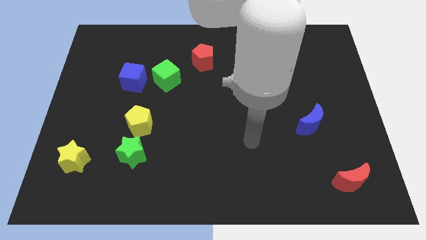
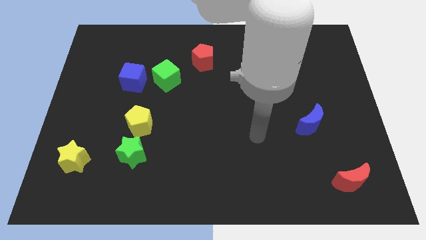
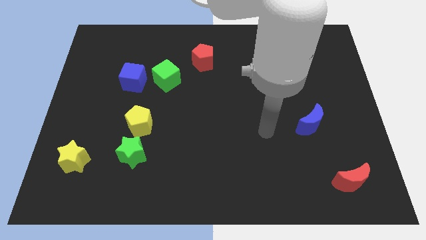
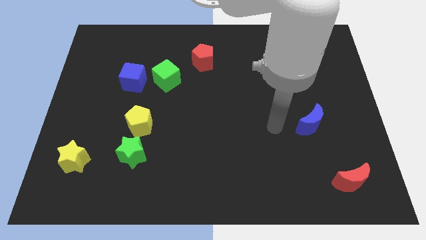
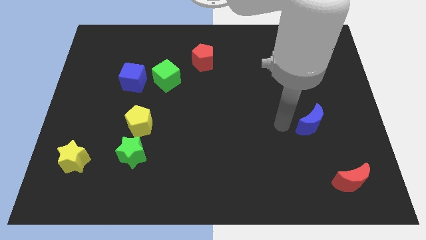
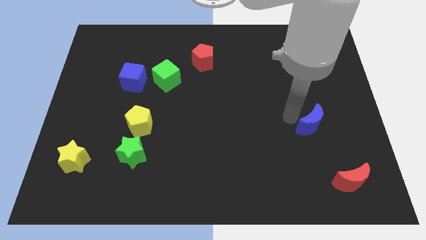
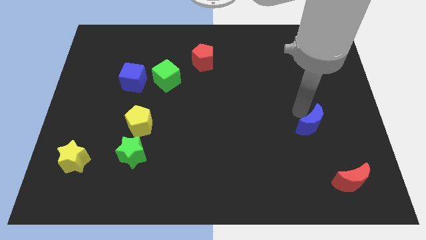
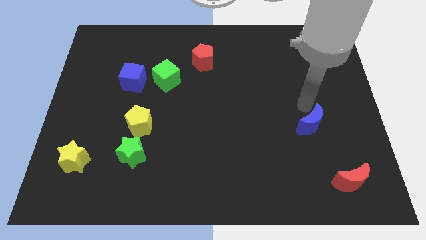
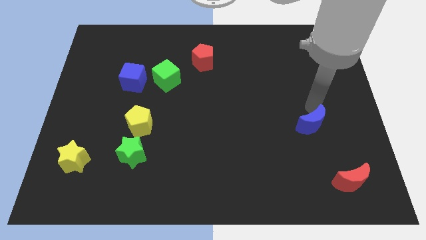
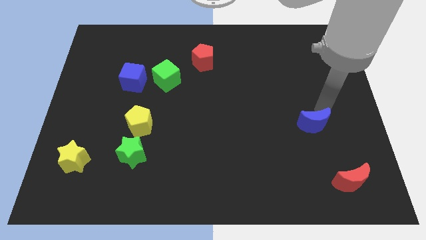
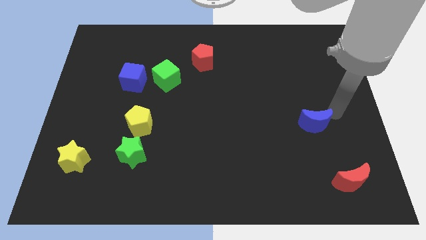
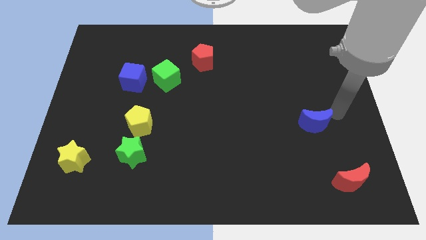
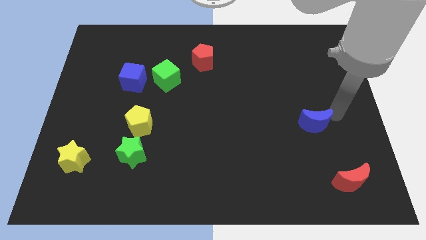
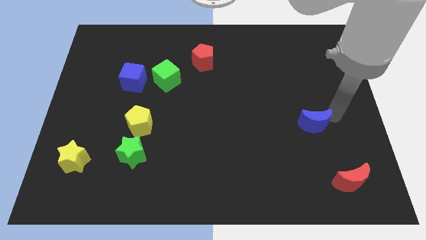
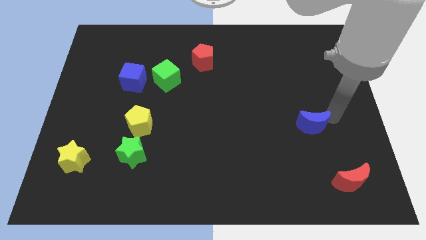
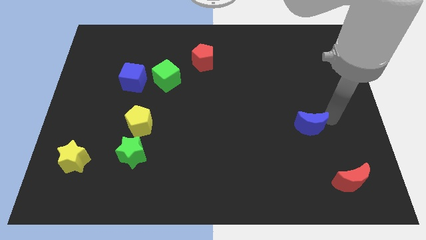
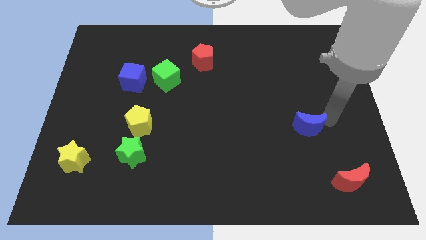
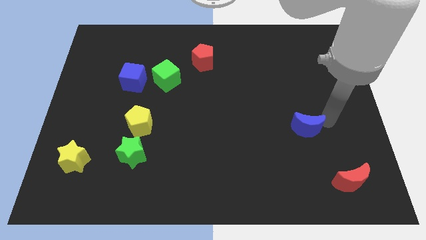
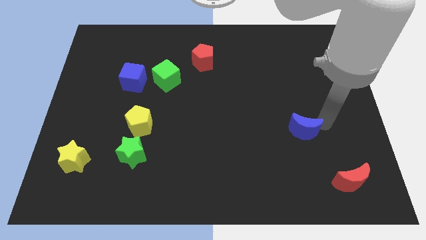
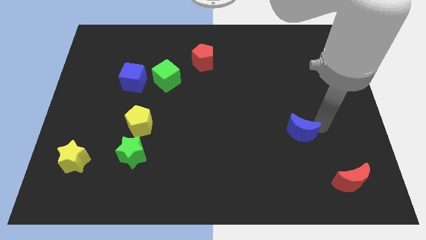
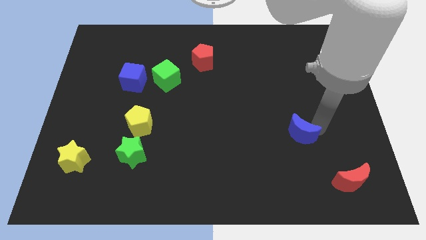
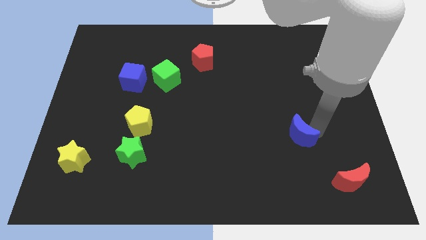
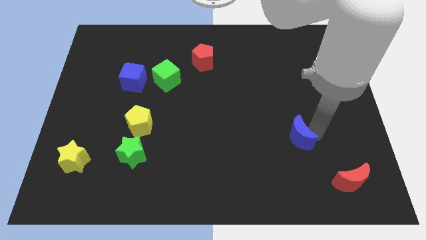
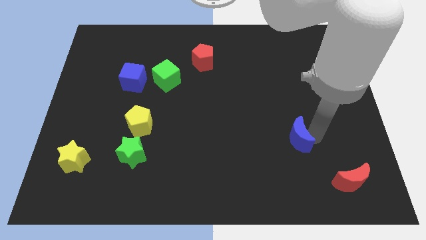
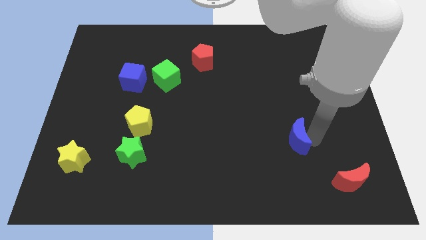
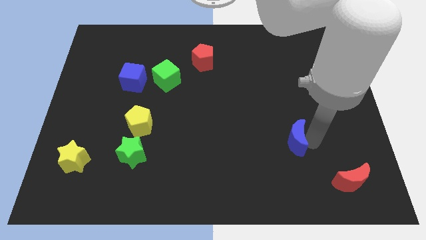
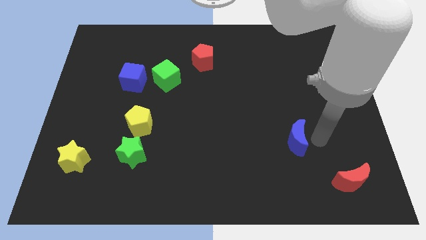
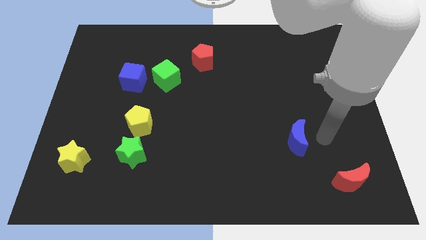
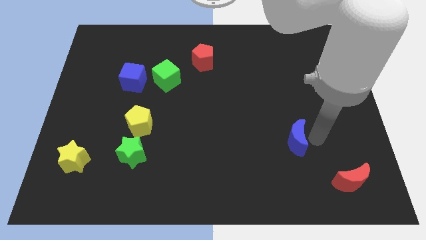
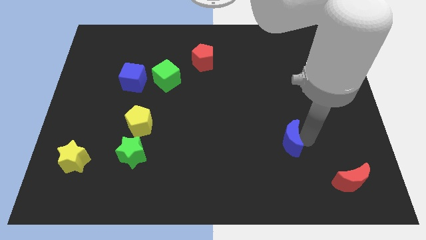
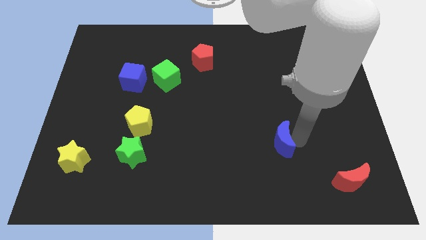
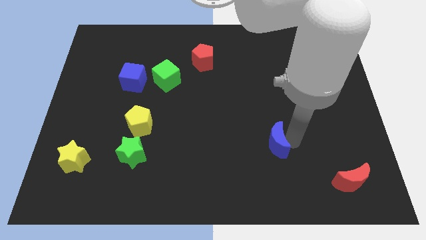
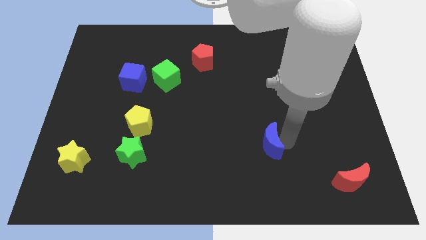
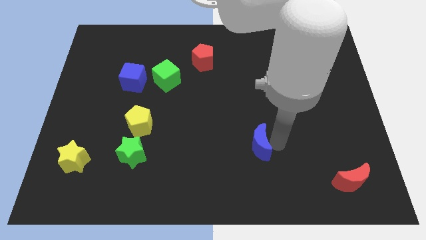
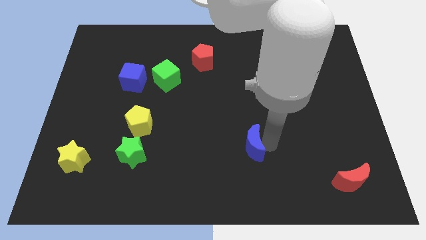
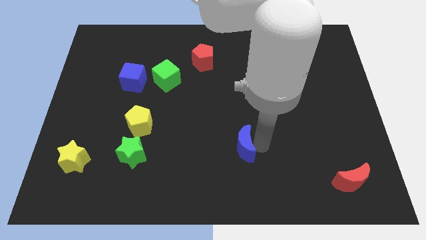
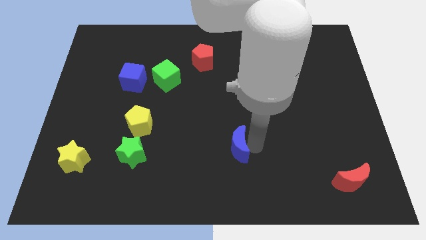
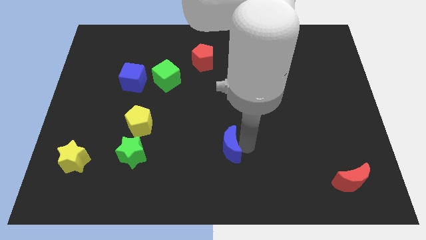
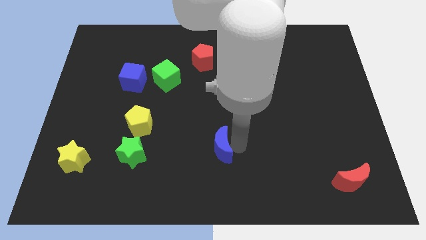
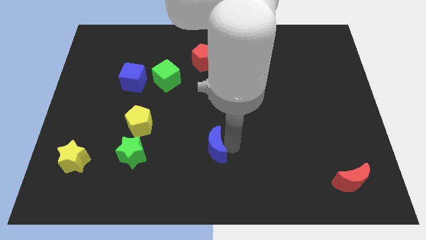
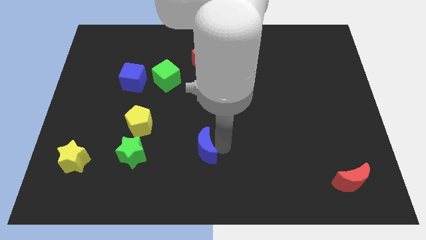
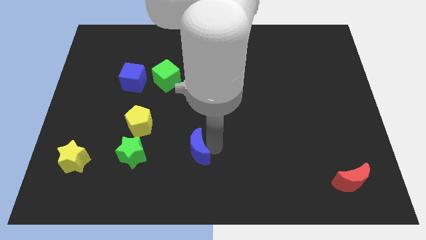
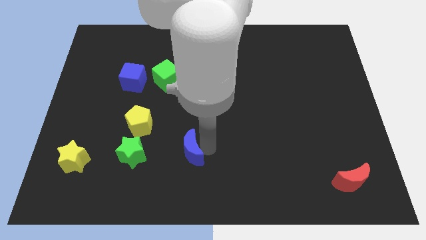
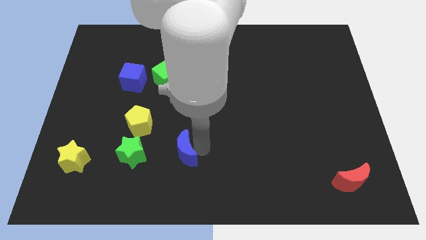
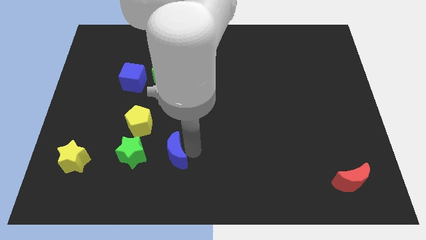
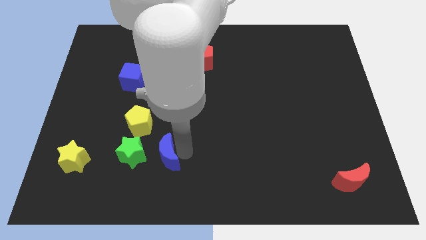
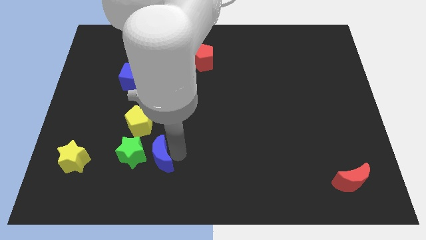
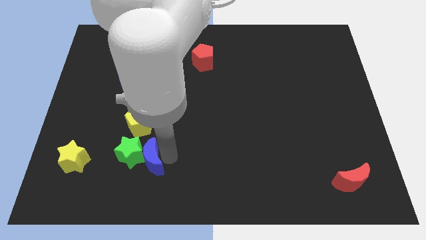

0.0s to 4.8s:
put the blue moon to the right of the yellow star

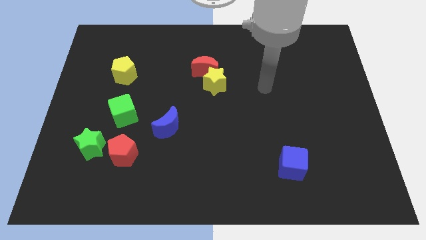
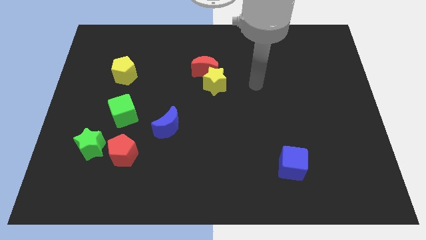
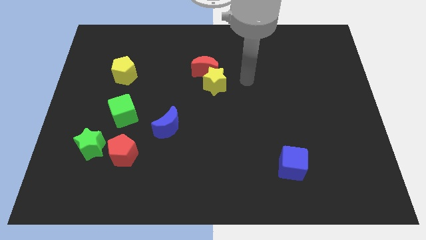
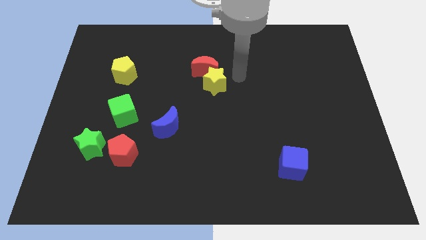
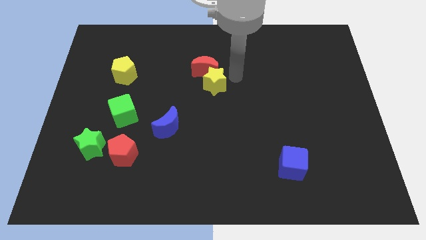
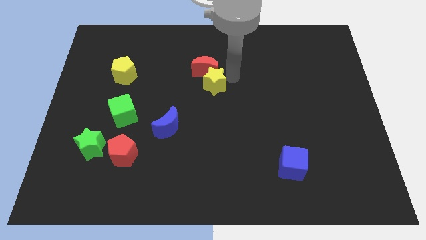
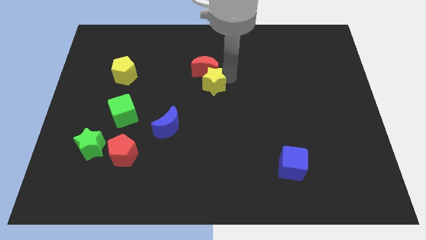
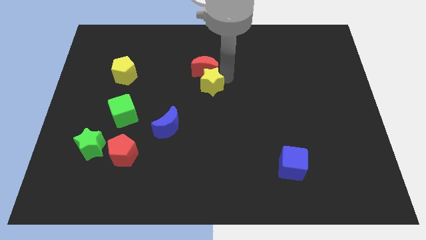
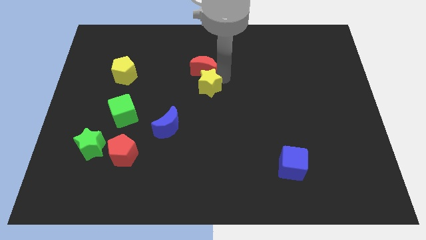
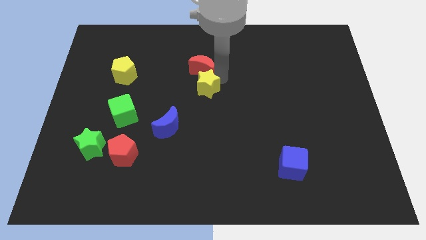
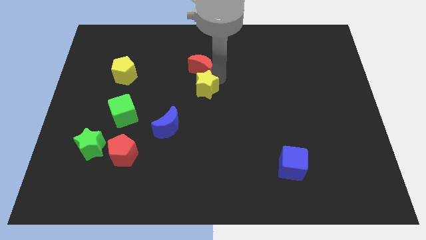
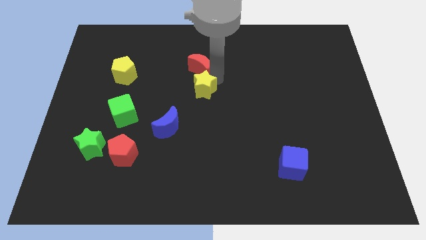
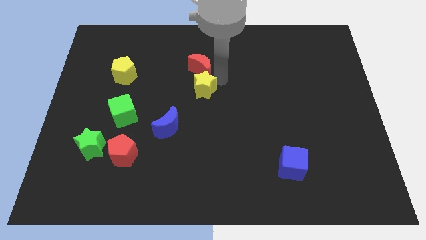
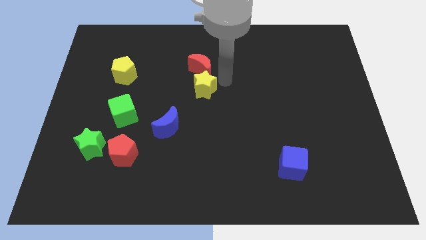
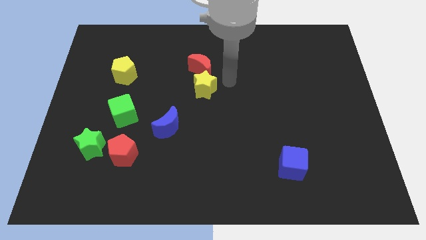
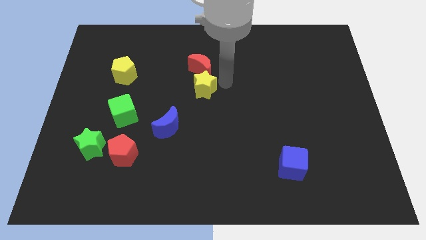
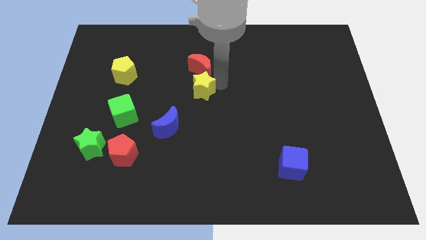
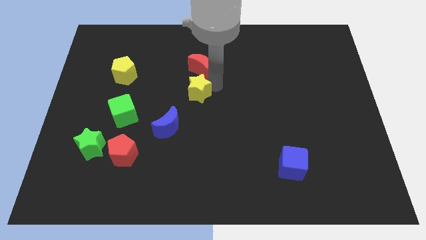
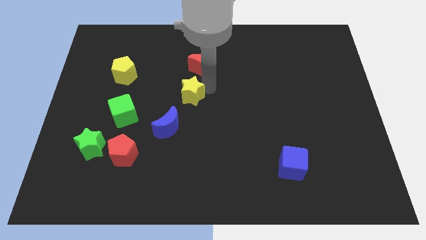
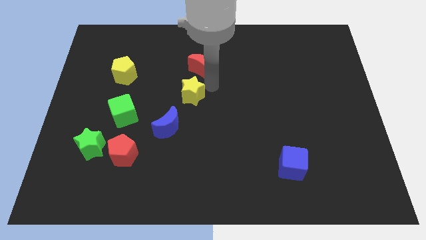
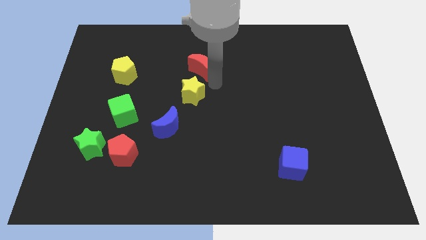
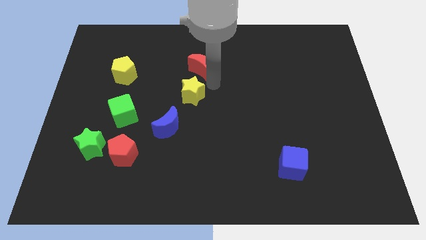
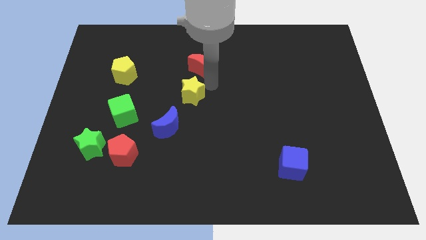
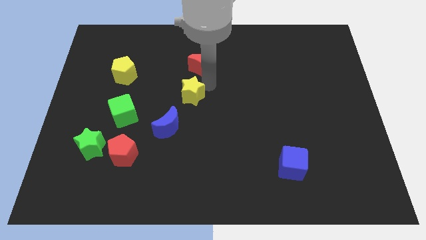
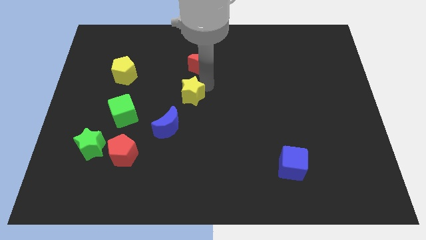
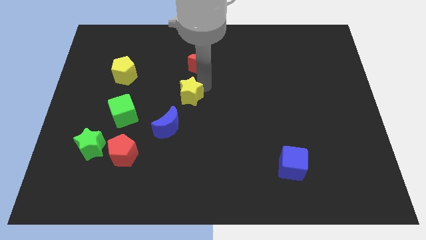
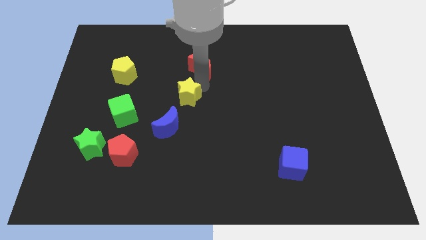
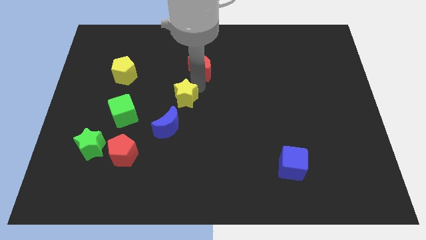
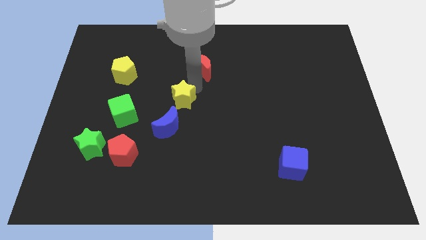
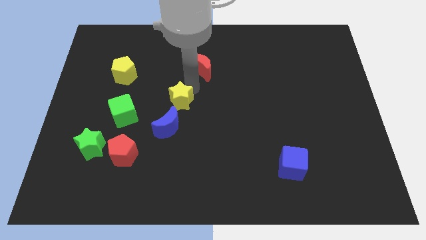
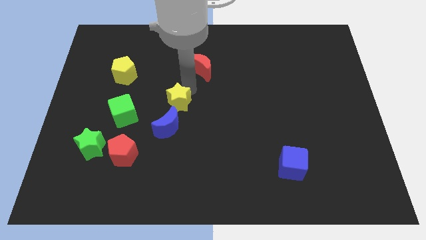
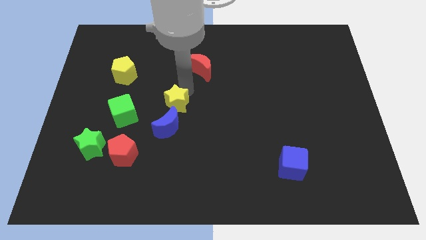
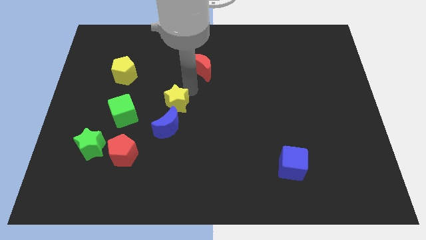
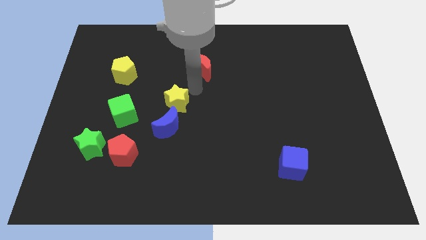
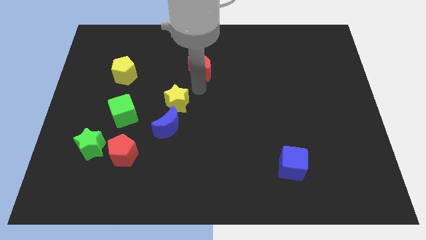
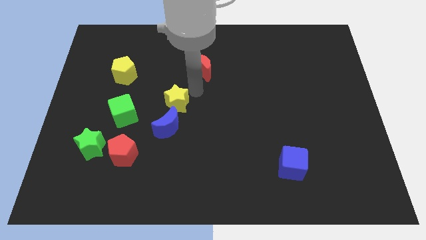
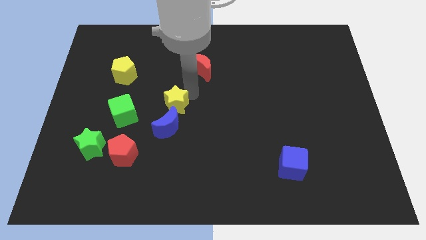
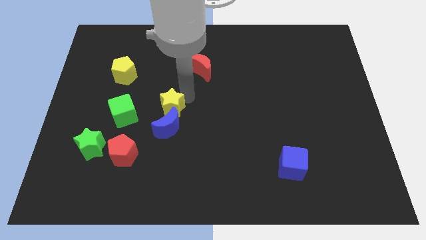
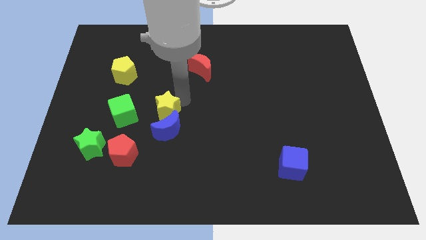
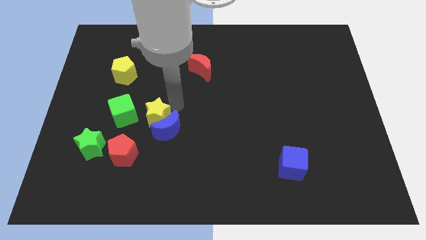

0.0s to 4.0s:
move the yellow star to the left side of the blue moon
